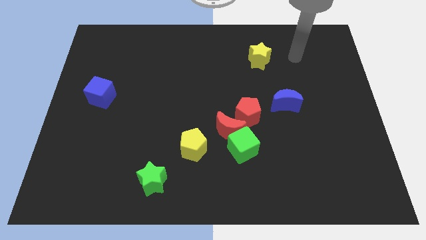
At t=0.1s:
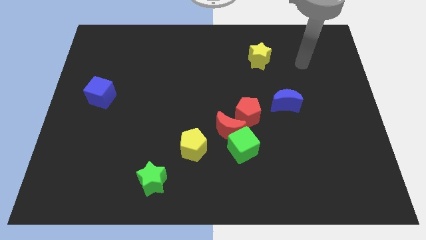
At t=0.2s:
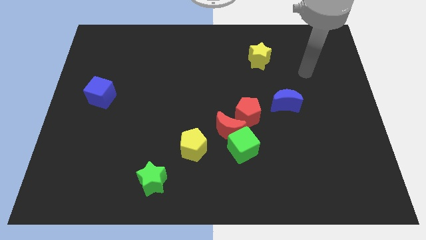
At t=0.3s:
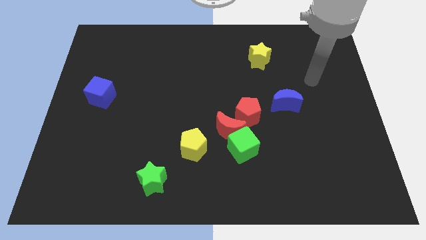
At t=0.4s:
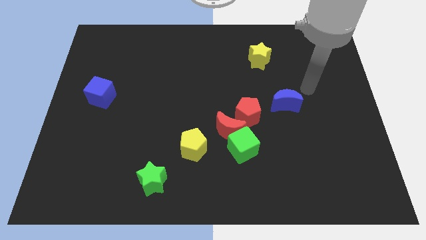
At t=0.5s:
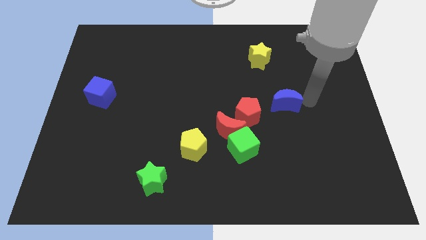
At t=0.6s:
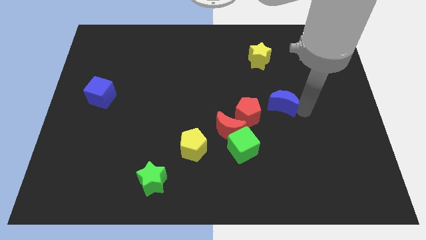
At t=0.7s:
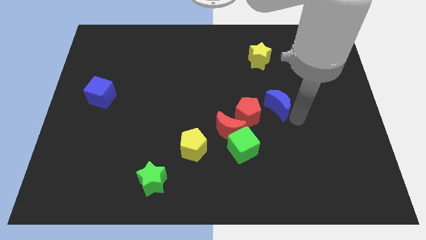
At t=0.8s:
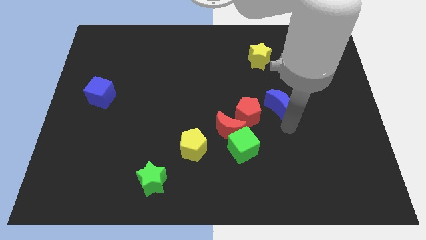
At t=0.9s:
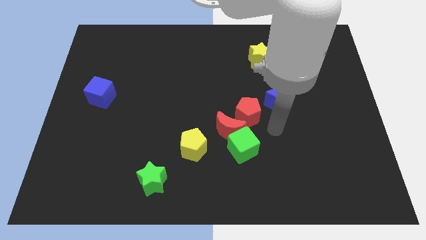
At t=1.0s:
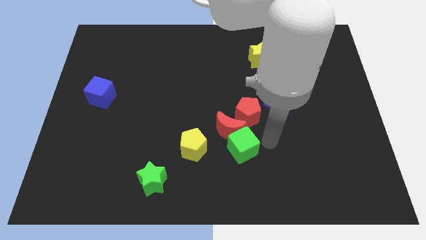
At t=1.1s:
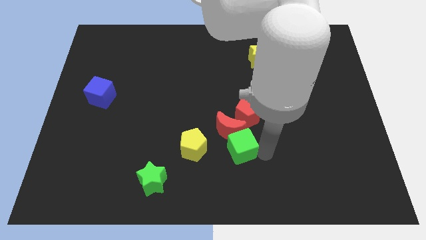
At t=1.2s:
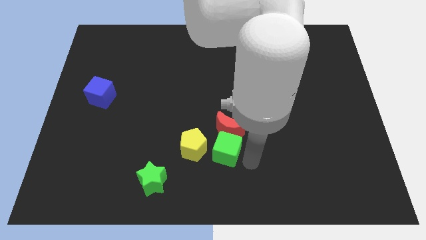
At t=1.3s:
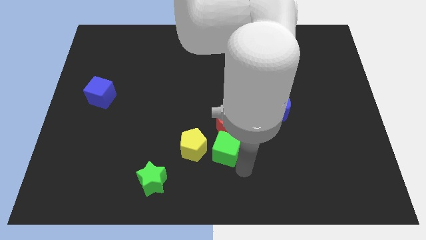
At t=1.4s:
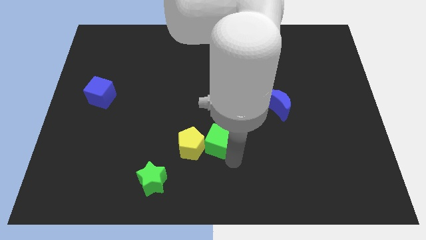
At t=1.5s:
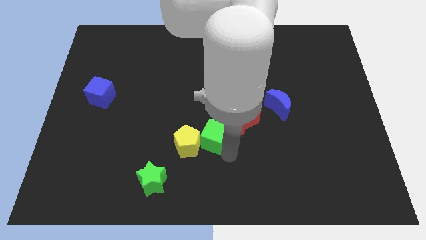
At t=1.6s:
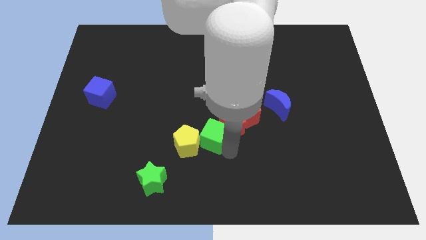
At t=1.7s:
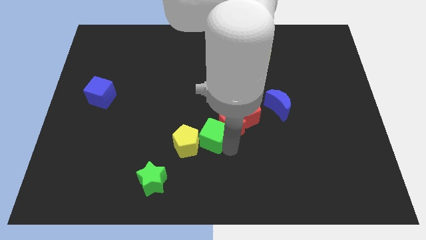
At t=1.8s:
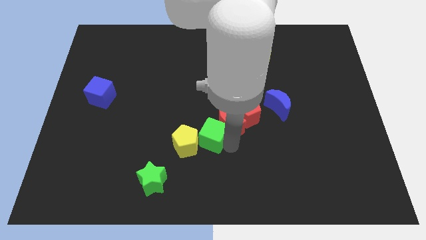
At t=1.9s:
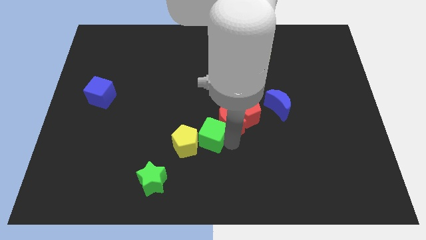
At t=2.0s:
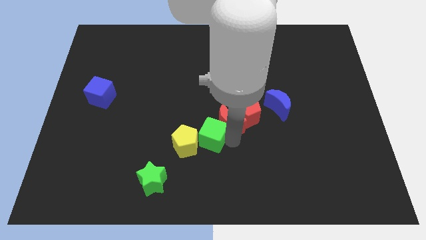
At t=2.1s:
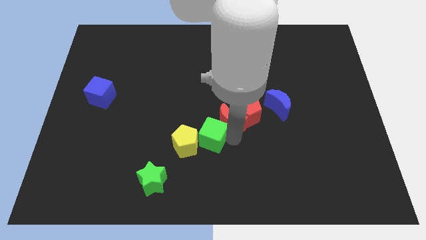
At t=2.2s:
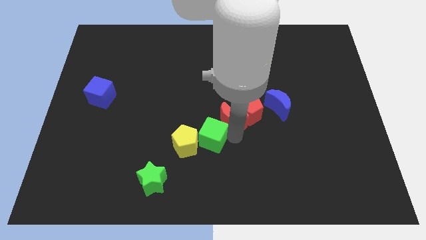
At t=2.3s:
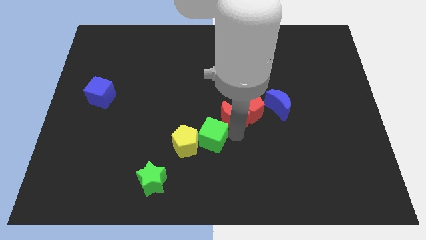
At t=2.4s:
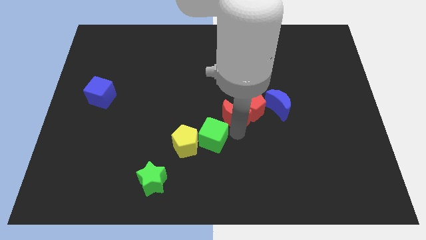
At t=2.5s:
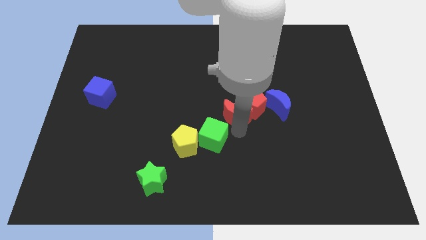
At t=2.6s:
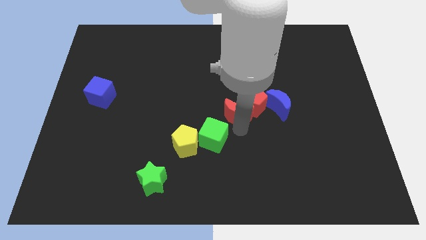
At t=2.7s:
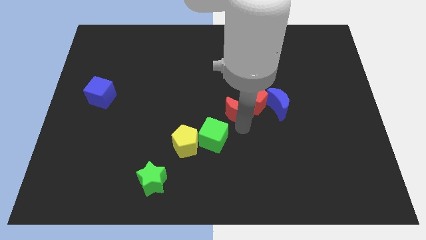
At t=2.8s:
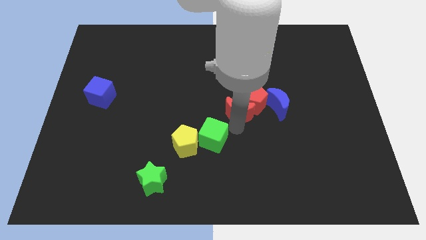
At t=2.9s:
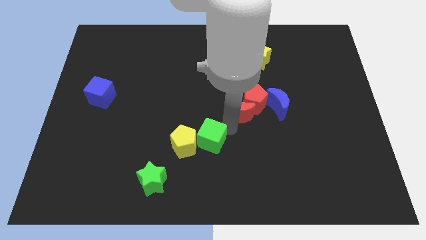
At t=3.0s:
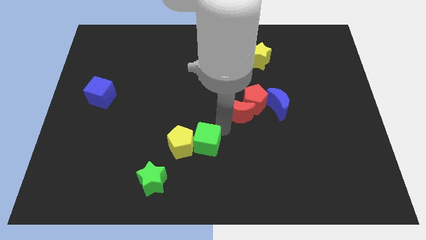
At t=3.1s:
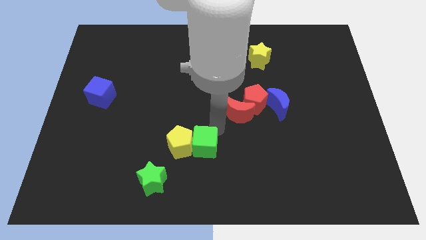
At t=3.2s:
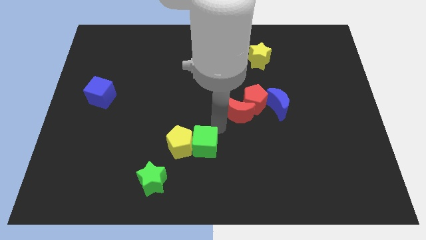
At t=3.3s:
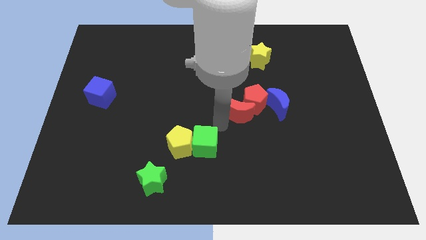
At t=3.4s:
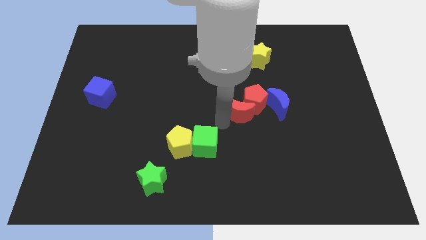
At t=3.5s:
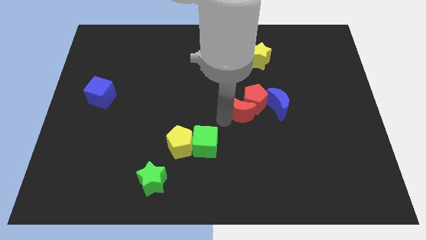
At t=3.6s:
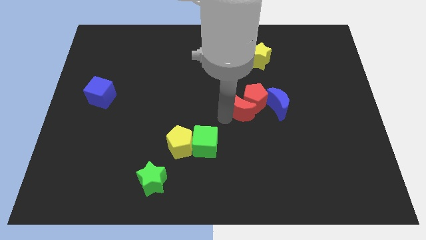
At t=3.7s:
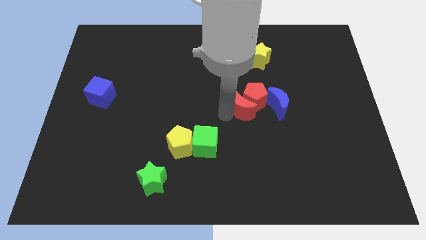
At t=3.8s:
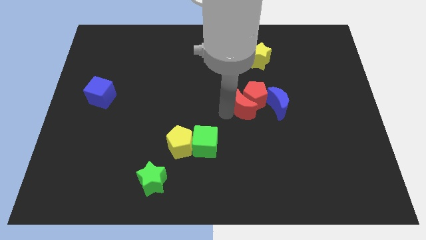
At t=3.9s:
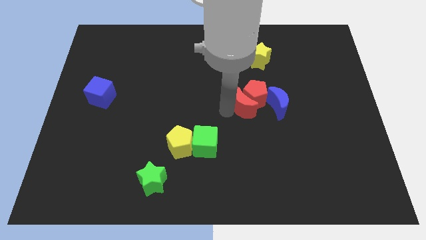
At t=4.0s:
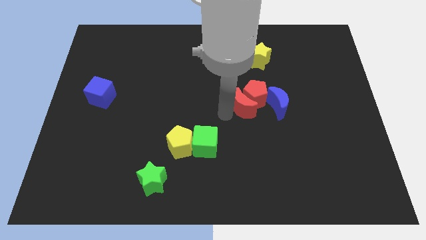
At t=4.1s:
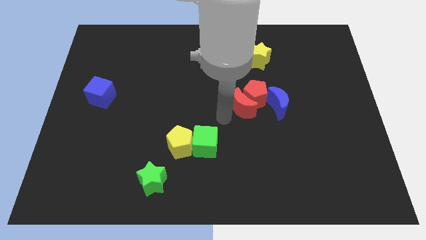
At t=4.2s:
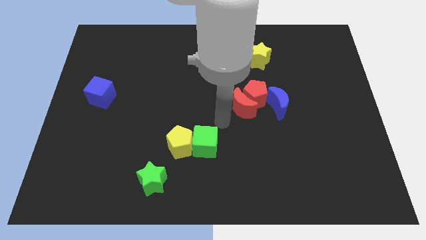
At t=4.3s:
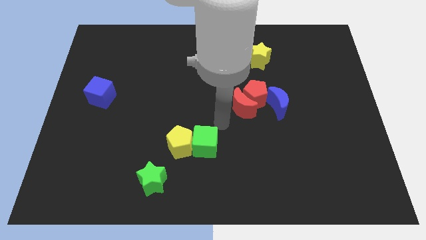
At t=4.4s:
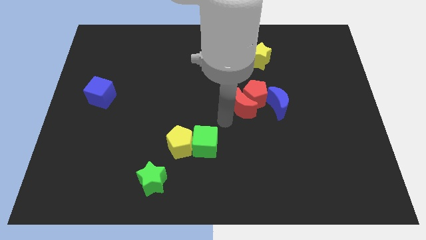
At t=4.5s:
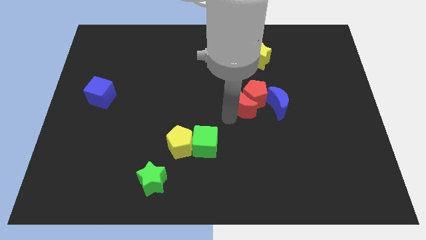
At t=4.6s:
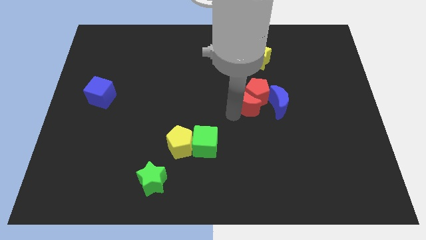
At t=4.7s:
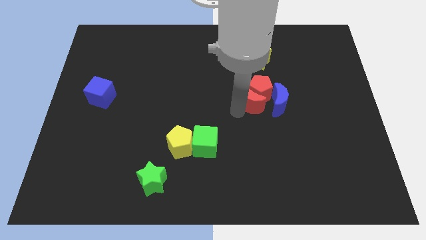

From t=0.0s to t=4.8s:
pull the red moon apart from the group of blocks

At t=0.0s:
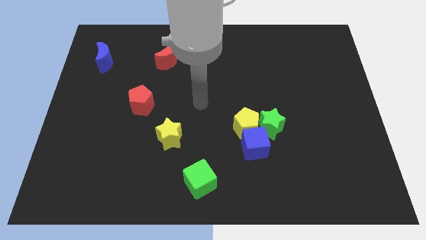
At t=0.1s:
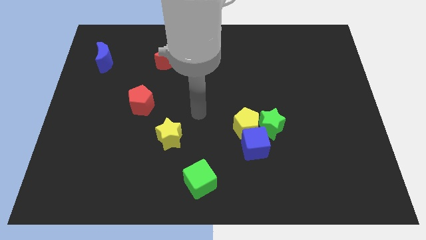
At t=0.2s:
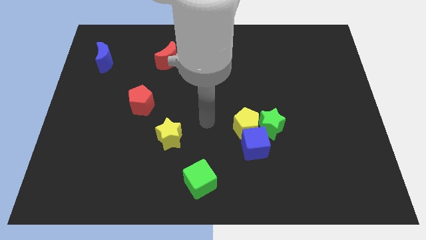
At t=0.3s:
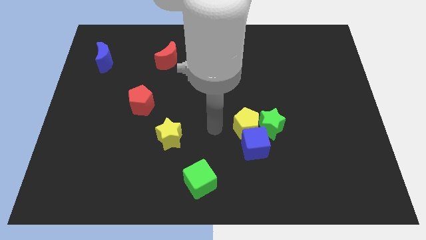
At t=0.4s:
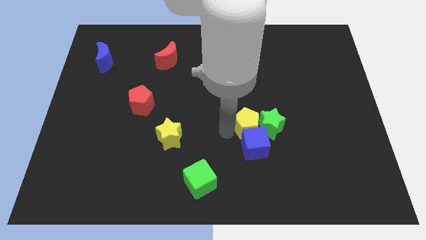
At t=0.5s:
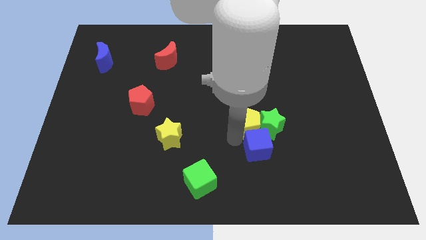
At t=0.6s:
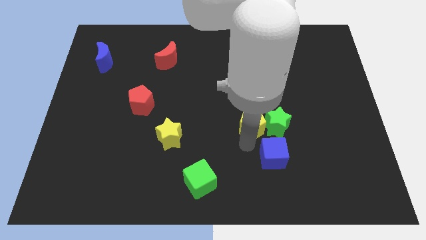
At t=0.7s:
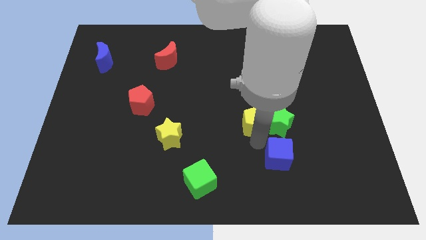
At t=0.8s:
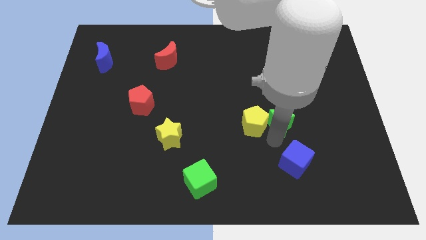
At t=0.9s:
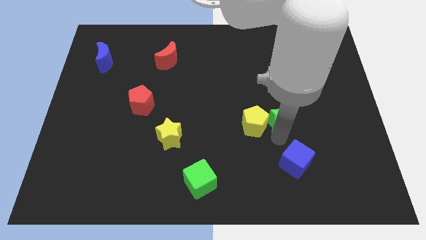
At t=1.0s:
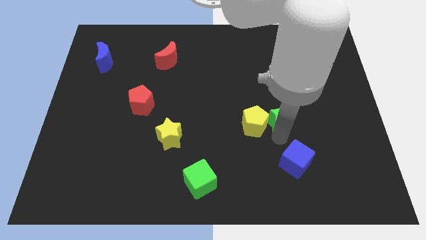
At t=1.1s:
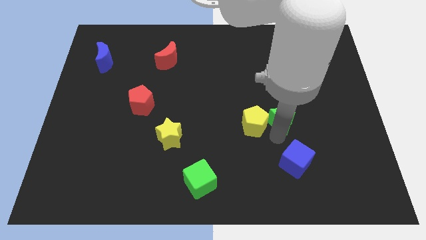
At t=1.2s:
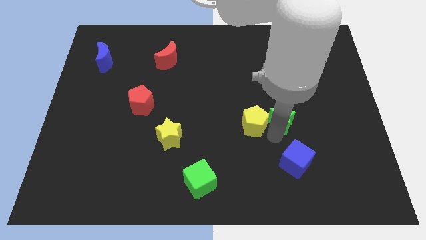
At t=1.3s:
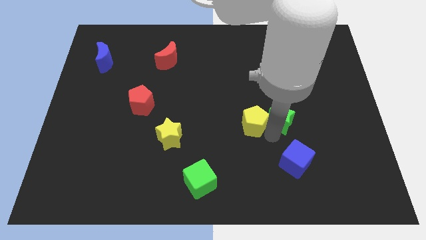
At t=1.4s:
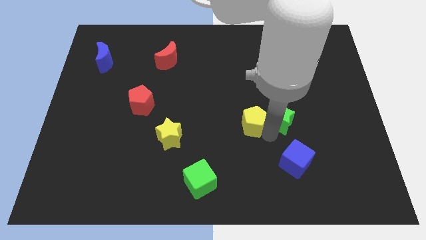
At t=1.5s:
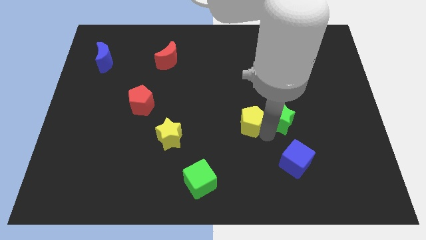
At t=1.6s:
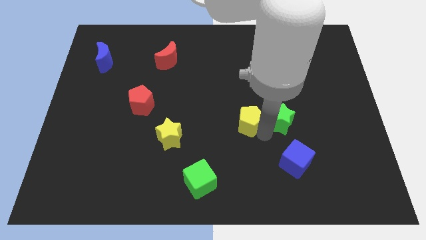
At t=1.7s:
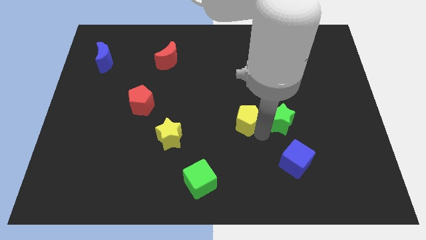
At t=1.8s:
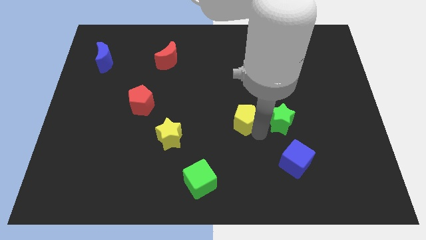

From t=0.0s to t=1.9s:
separate the yellow pentagon from the blue cube and green star

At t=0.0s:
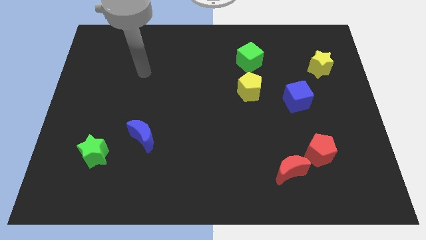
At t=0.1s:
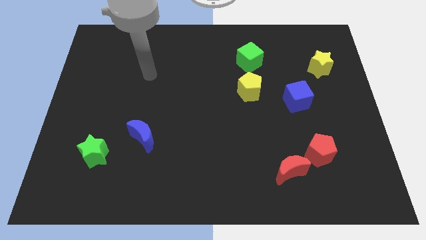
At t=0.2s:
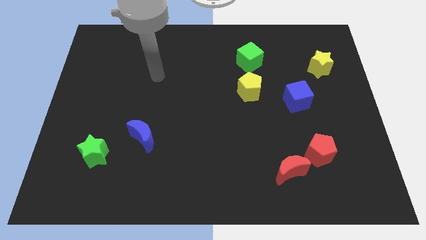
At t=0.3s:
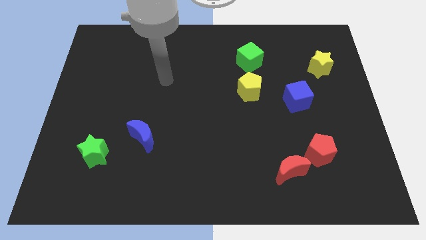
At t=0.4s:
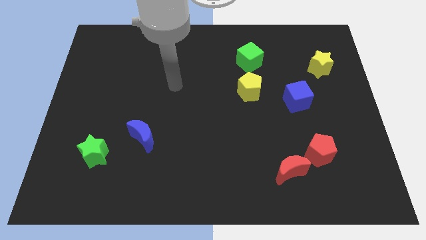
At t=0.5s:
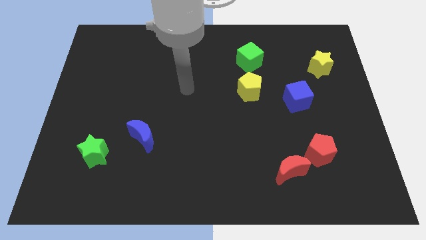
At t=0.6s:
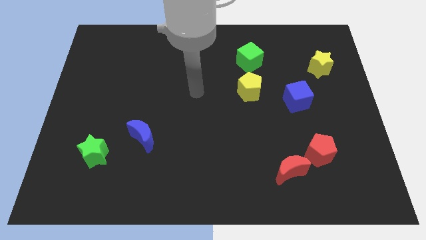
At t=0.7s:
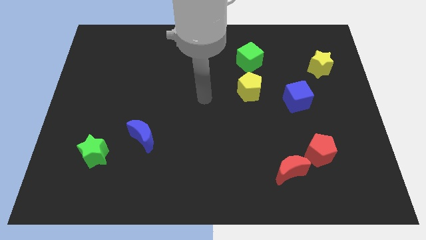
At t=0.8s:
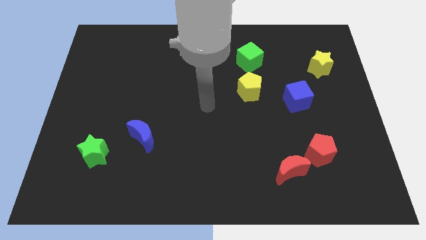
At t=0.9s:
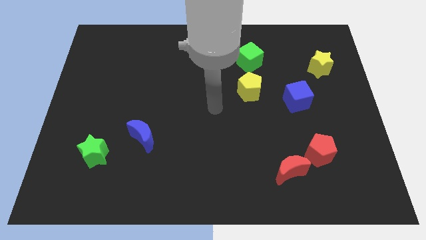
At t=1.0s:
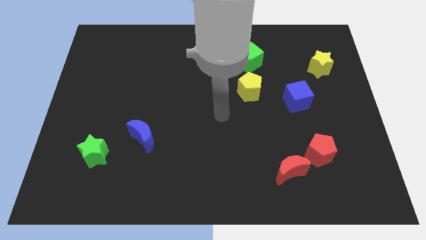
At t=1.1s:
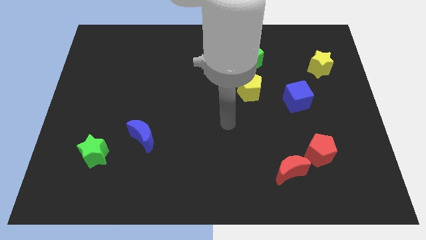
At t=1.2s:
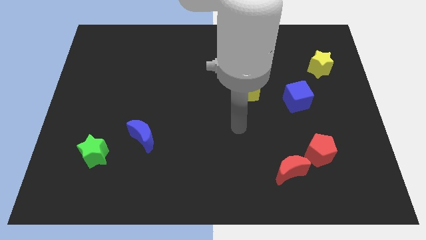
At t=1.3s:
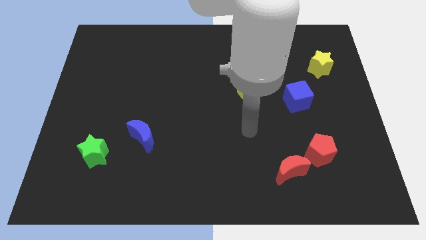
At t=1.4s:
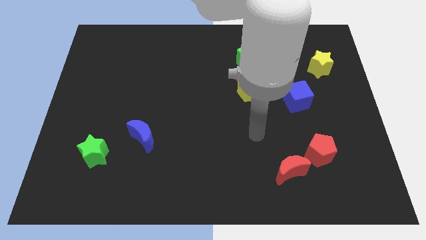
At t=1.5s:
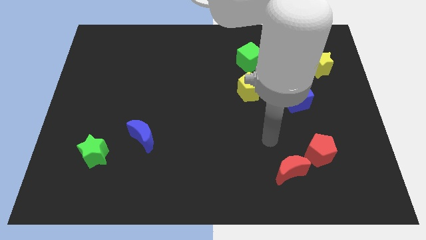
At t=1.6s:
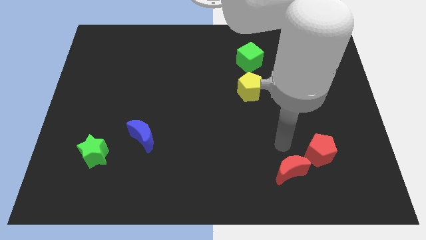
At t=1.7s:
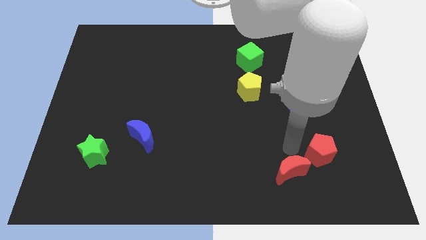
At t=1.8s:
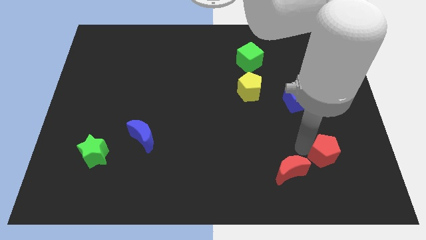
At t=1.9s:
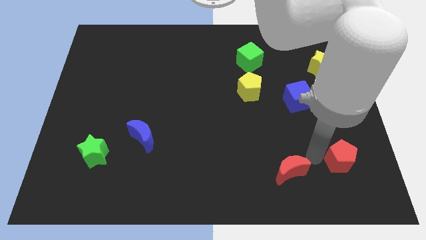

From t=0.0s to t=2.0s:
move the red moon away from the red pentagon

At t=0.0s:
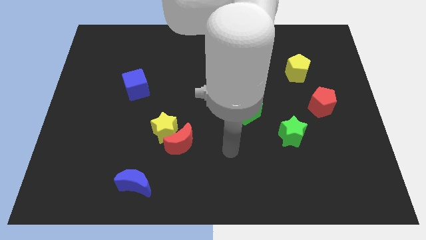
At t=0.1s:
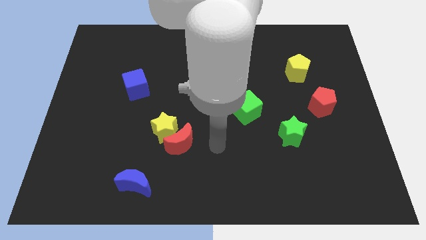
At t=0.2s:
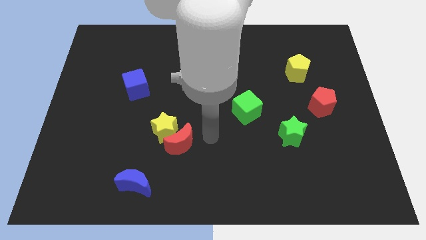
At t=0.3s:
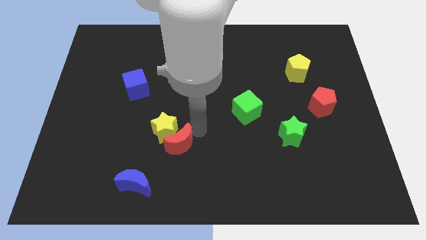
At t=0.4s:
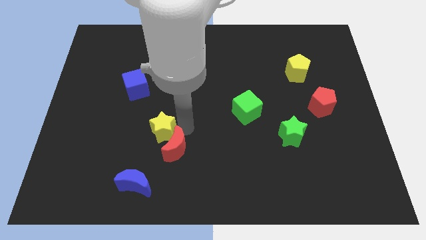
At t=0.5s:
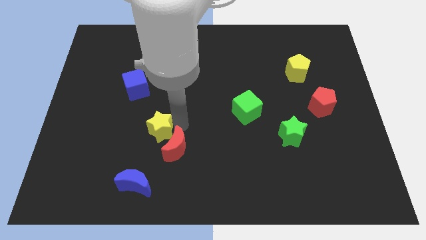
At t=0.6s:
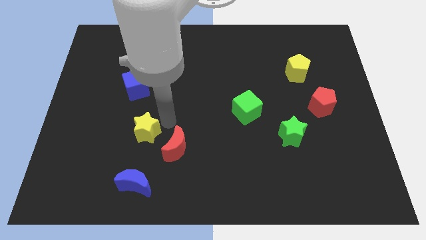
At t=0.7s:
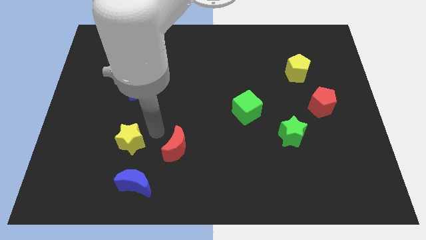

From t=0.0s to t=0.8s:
move the red moon away from the yellow star
